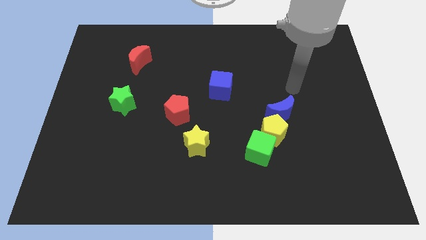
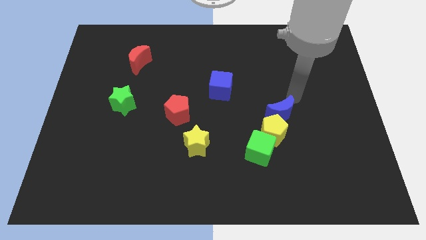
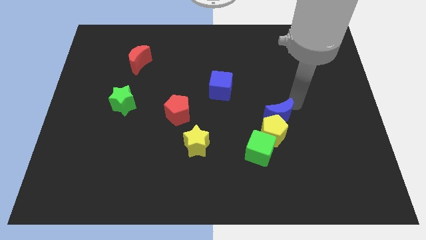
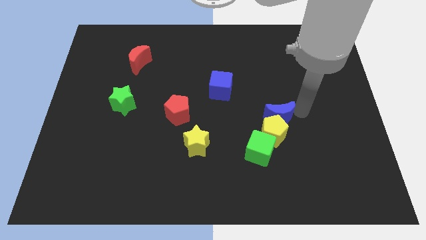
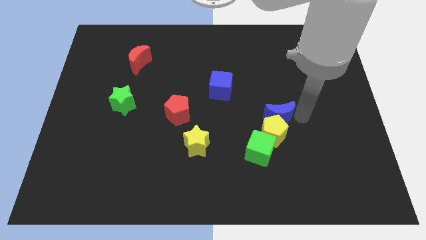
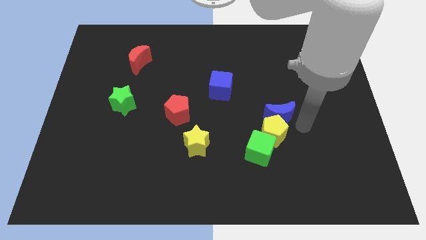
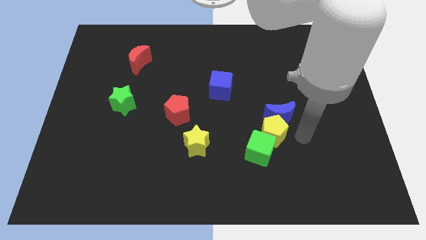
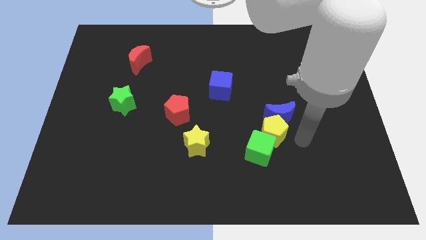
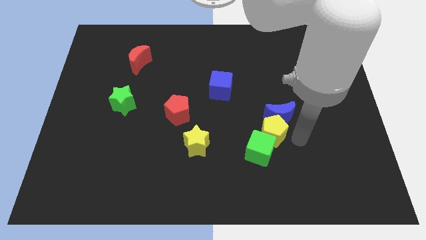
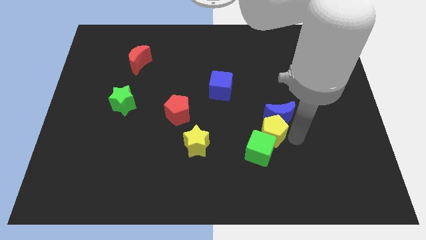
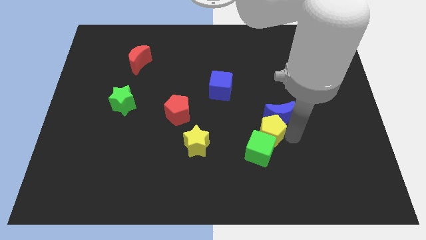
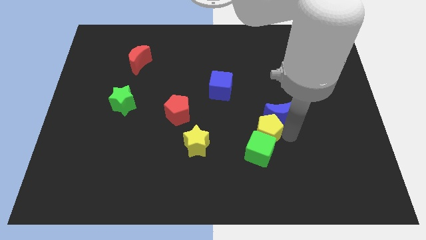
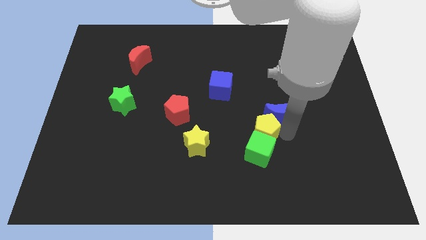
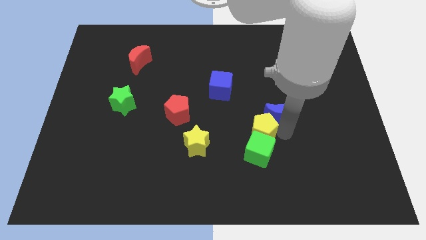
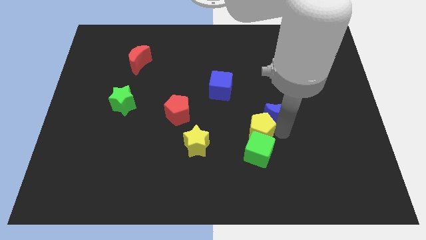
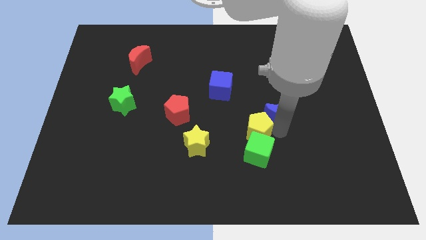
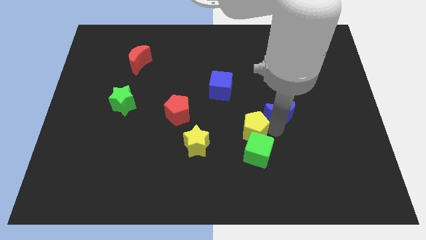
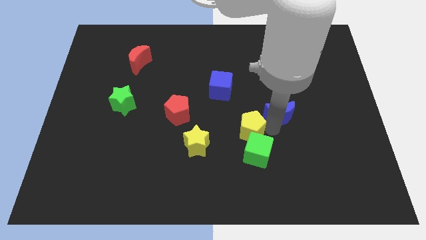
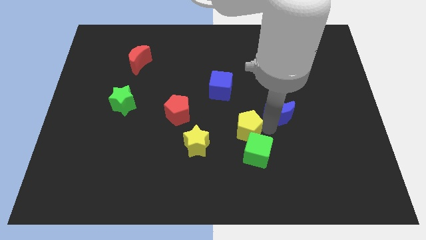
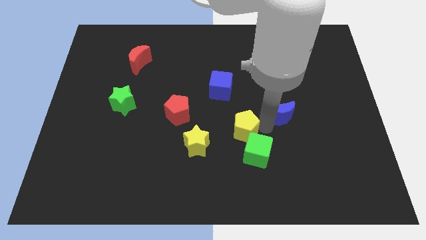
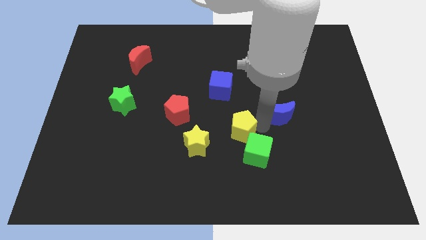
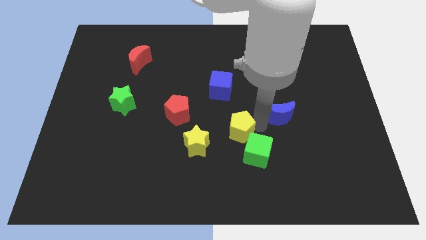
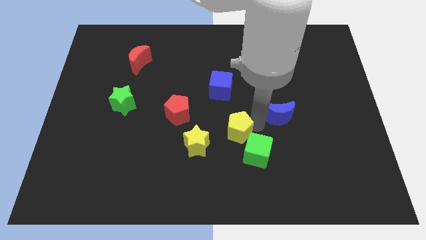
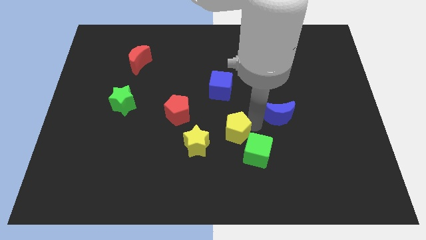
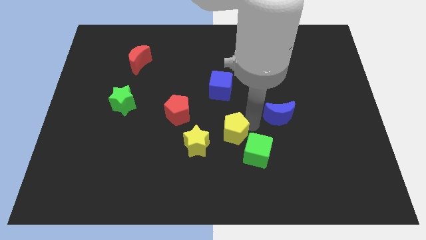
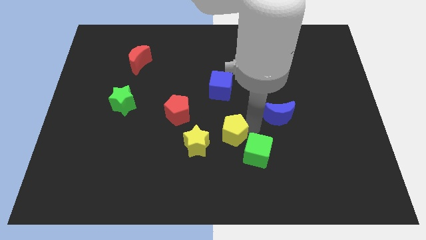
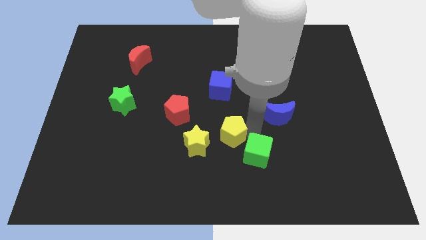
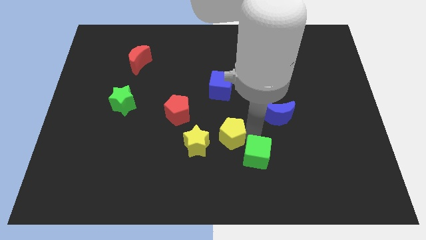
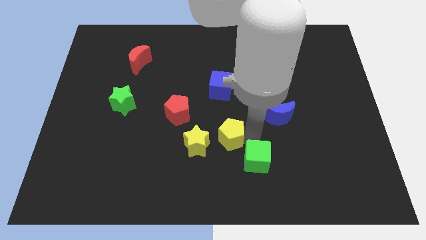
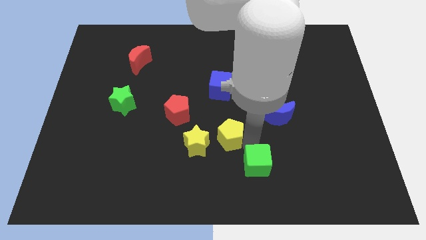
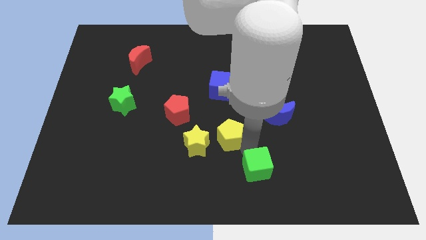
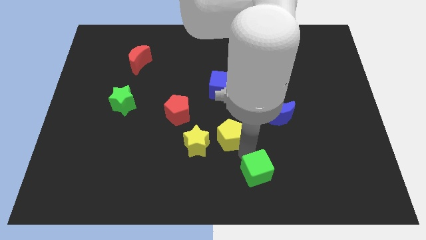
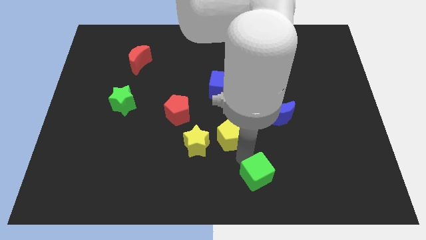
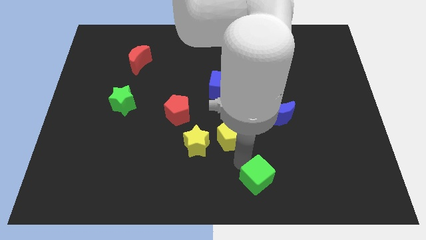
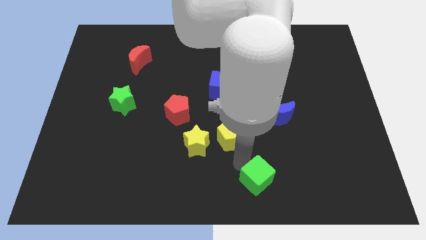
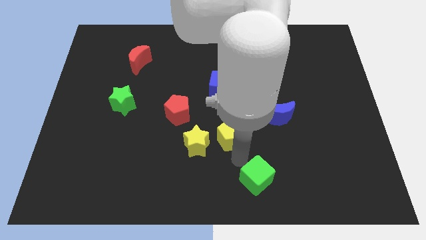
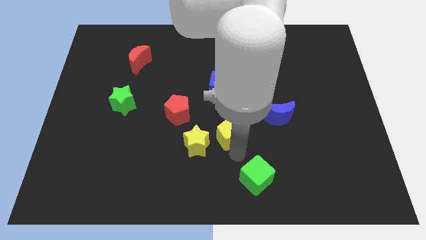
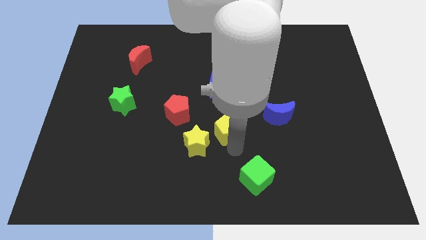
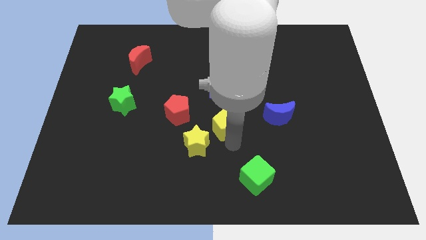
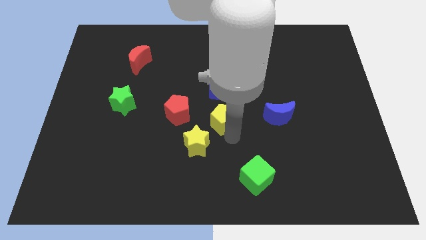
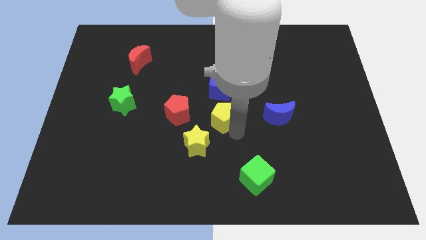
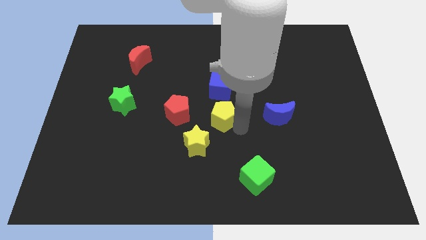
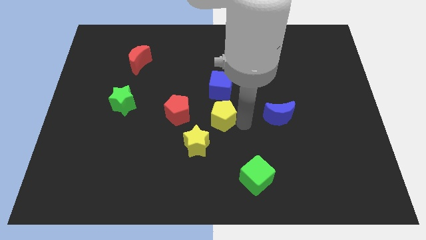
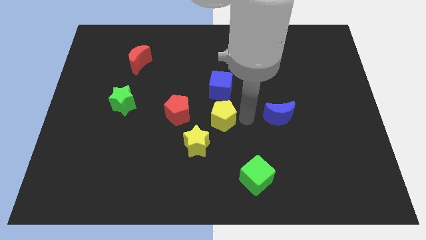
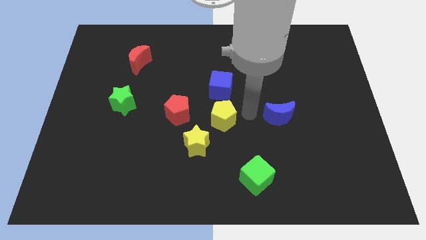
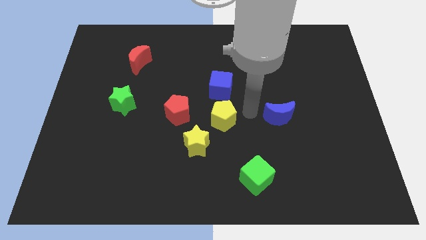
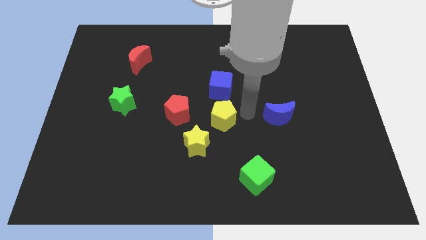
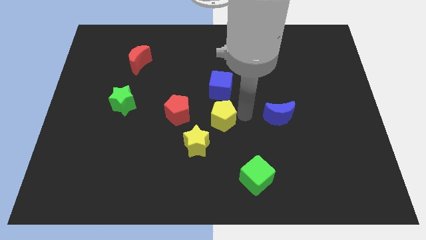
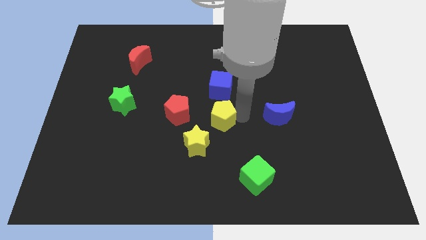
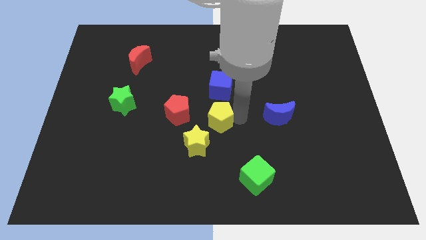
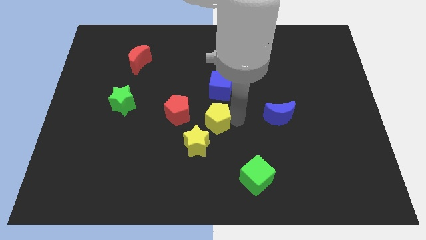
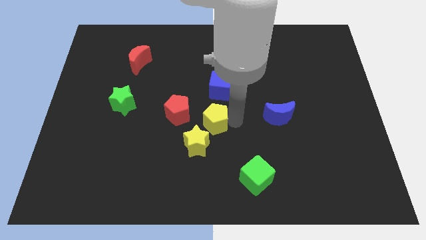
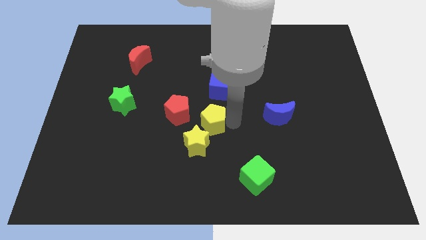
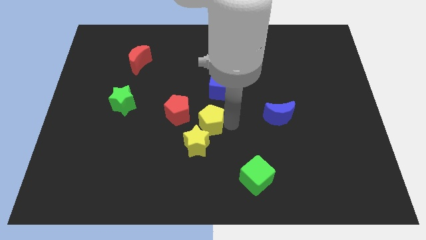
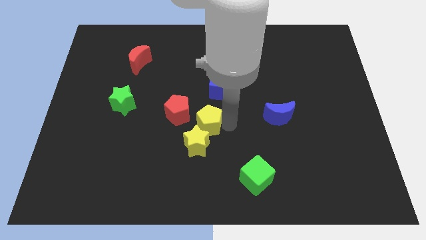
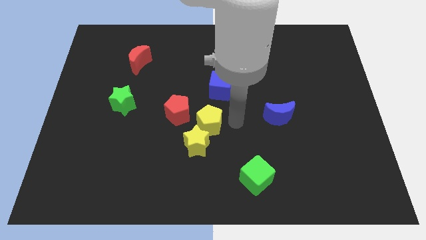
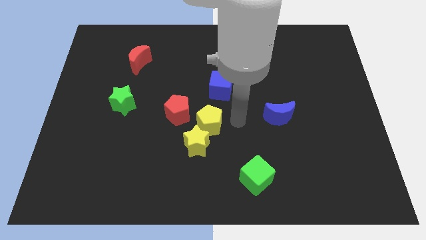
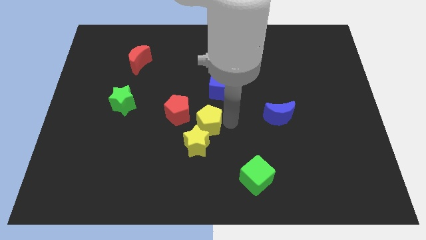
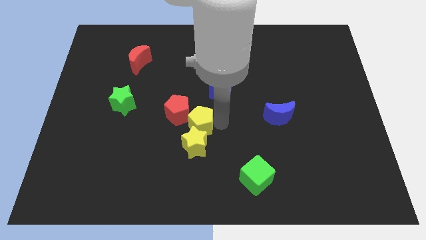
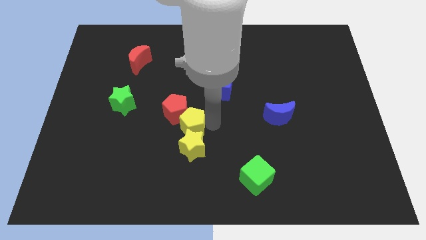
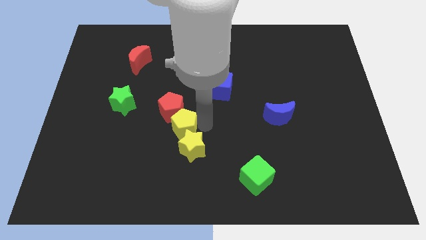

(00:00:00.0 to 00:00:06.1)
push the yellow pentagon left

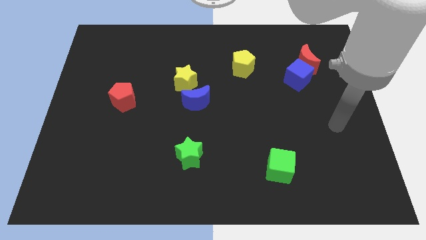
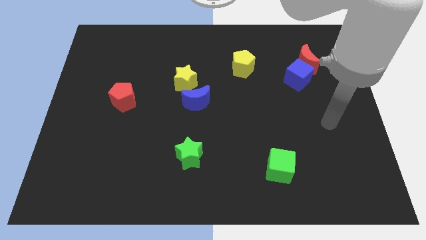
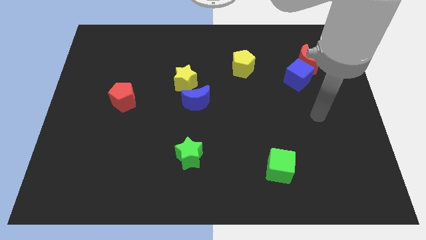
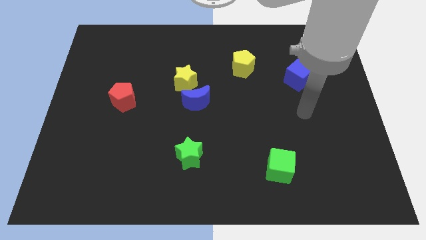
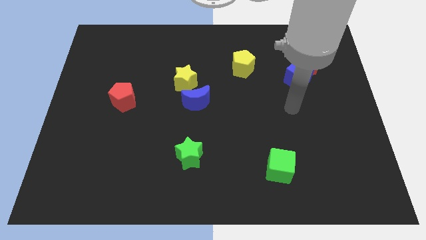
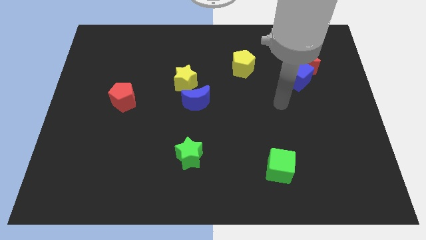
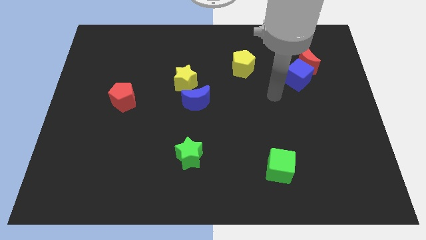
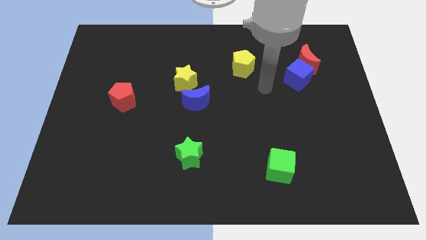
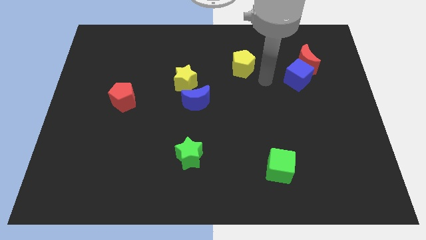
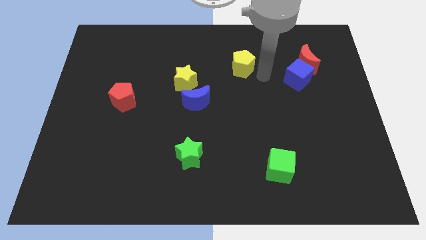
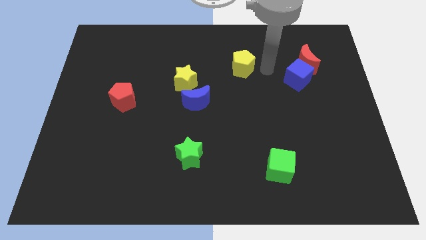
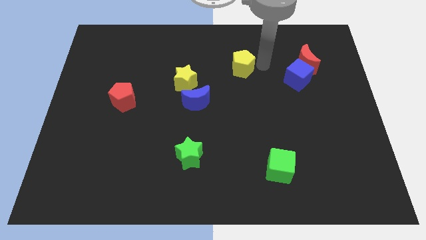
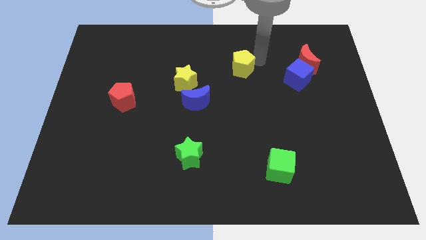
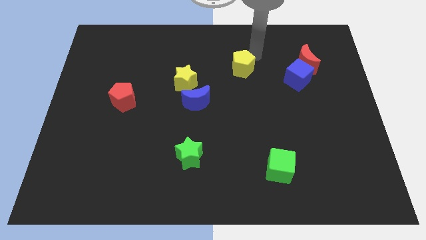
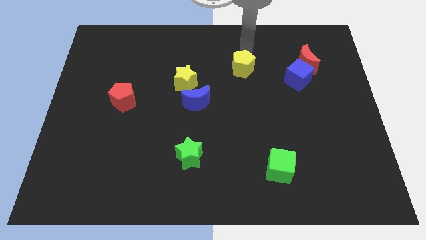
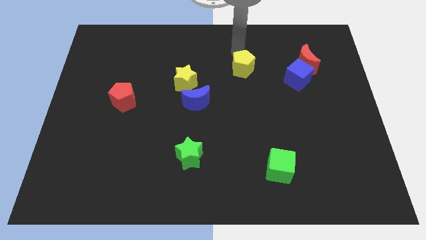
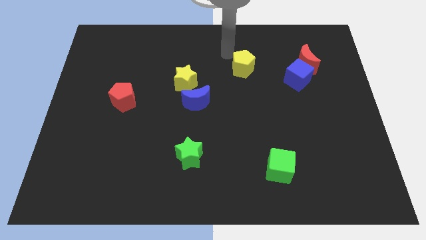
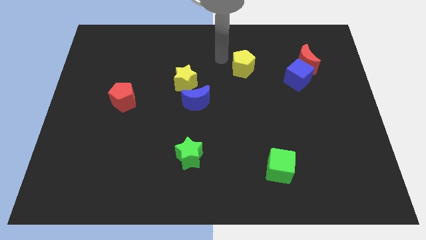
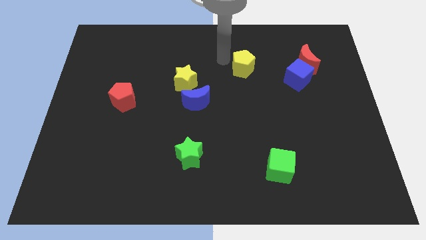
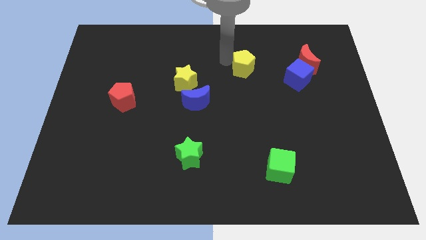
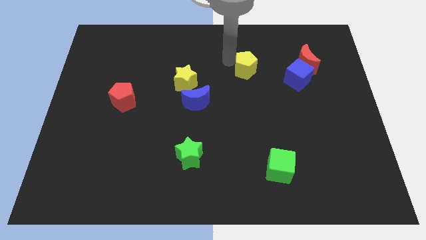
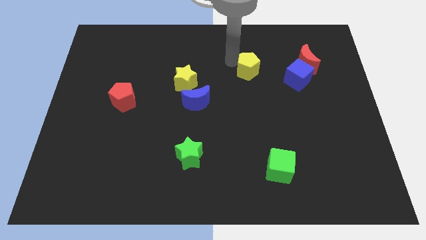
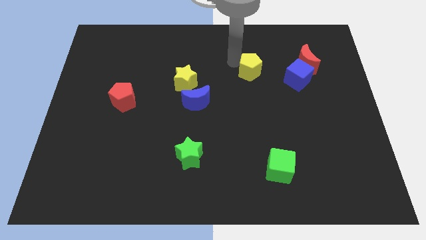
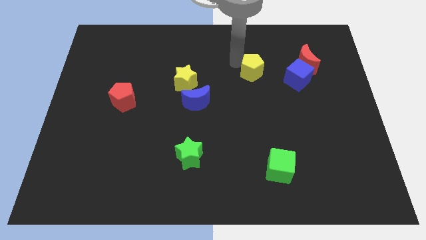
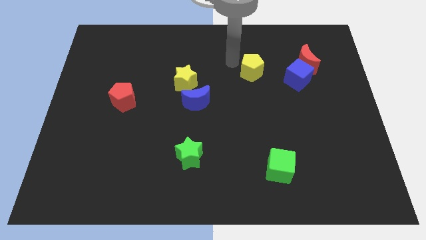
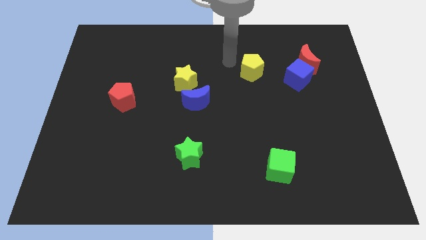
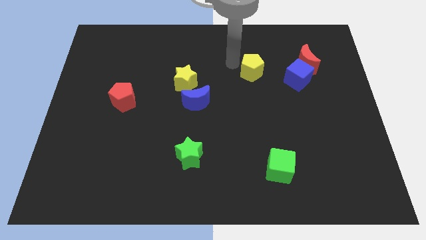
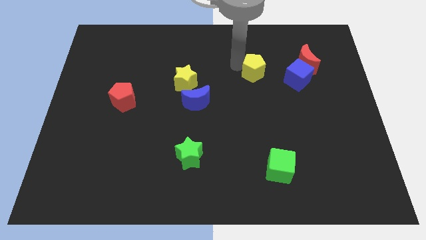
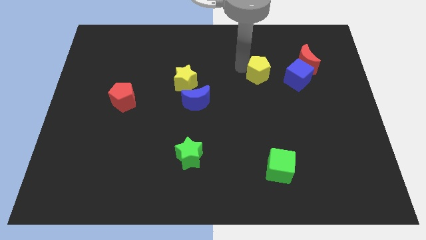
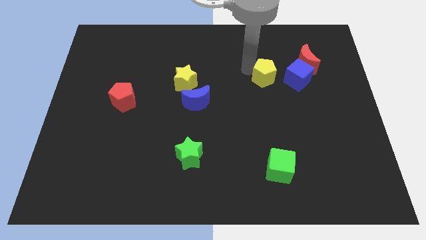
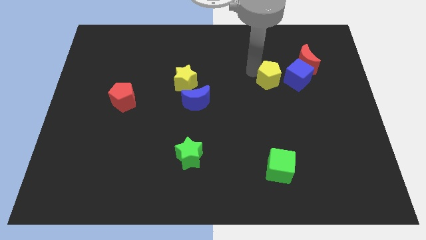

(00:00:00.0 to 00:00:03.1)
push the yellow pentagon slightly downwards and then right
